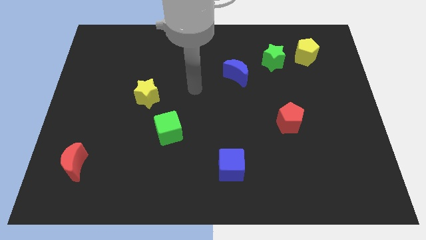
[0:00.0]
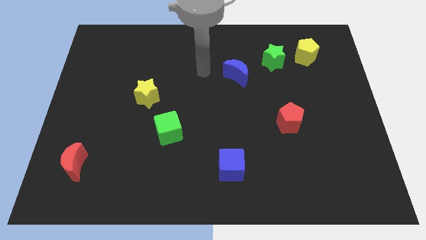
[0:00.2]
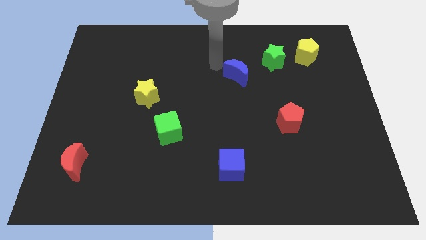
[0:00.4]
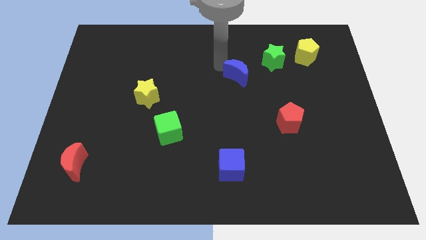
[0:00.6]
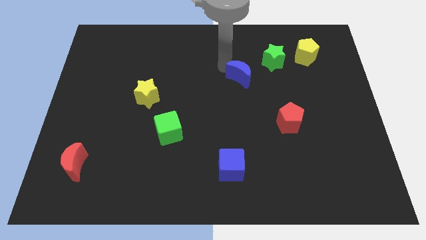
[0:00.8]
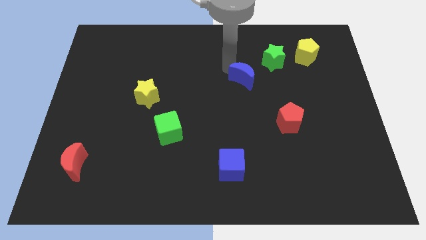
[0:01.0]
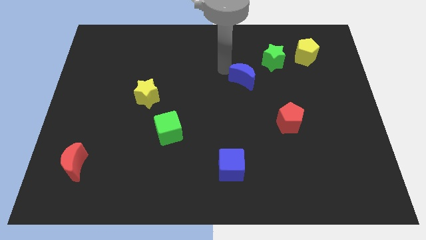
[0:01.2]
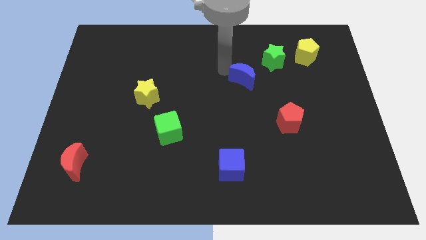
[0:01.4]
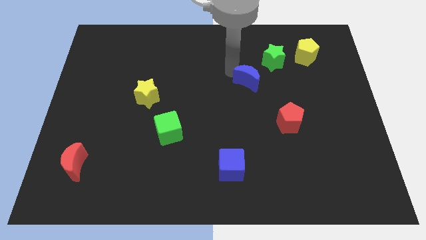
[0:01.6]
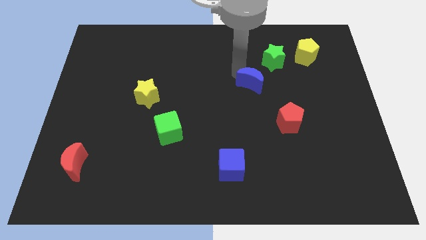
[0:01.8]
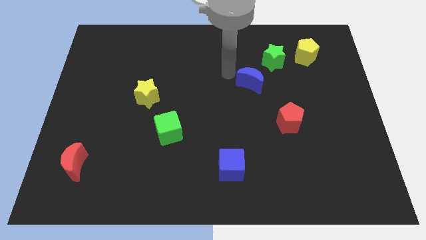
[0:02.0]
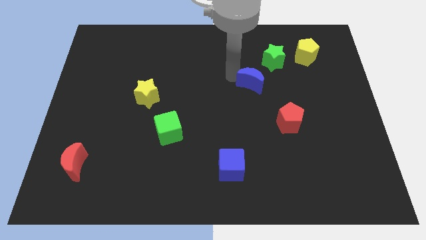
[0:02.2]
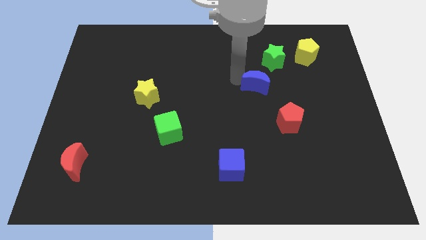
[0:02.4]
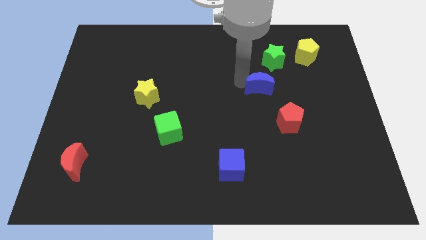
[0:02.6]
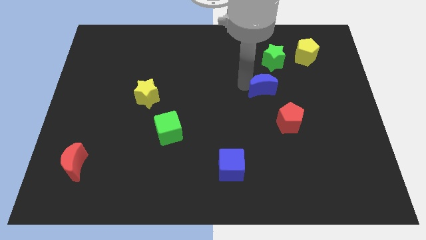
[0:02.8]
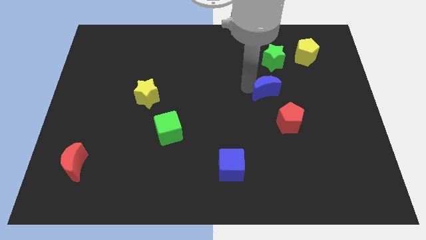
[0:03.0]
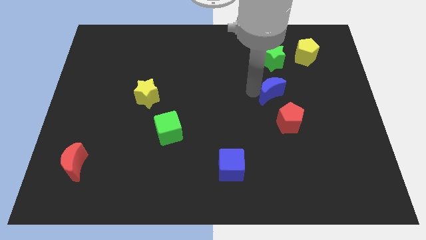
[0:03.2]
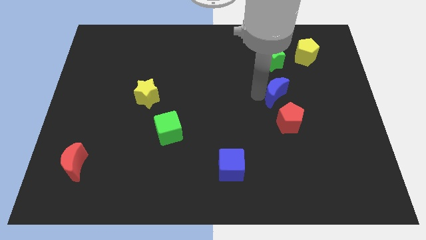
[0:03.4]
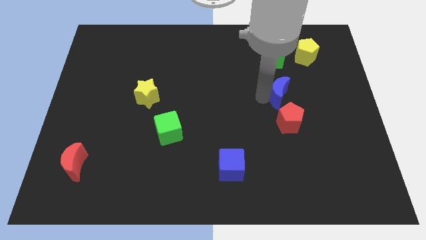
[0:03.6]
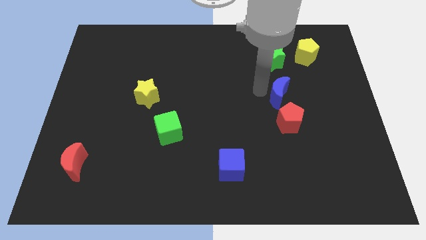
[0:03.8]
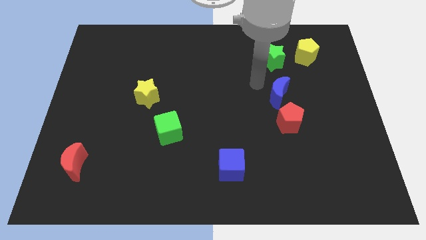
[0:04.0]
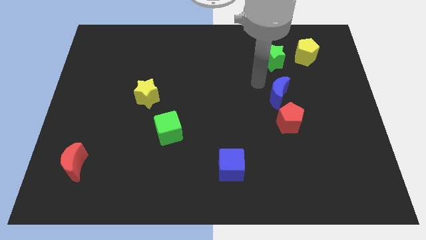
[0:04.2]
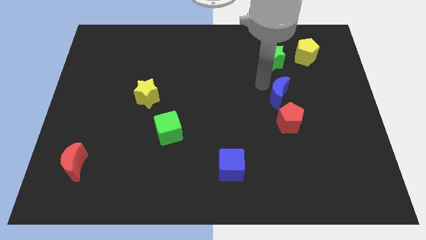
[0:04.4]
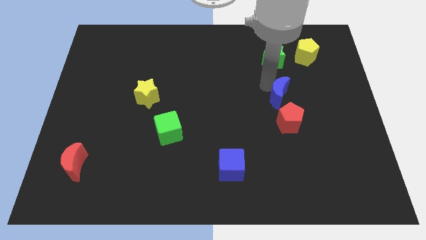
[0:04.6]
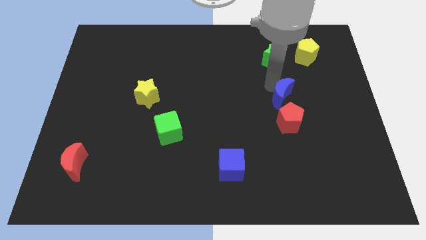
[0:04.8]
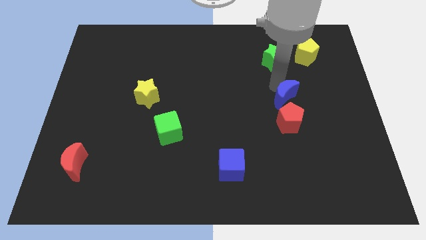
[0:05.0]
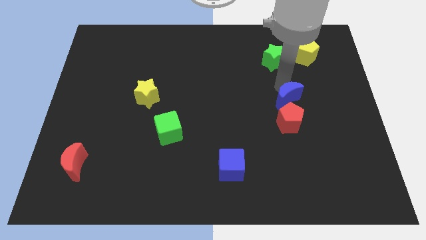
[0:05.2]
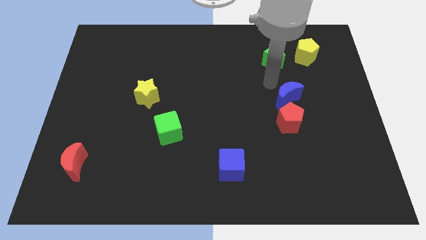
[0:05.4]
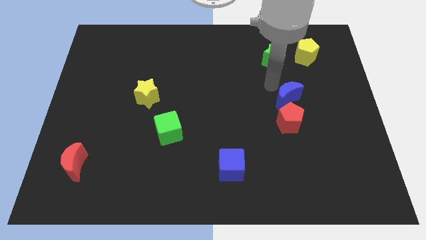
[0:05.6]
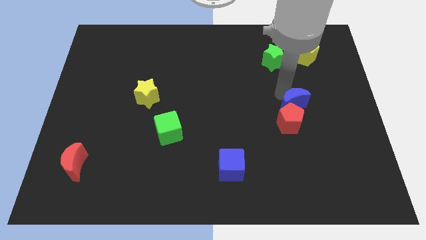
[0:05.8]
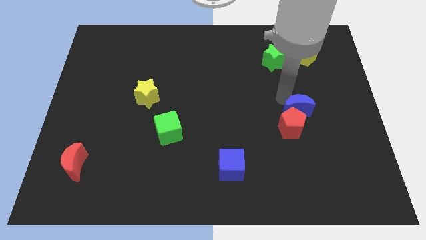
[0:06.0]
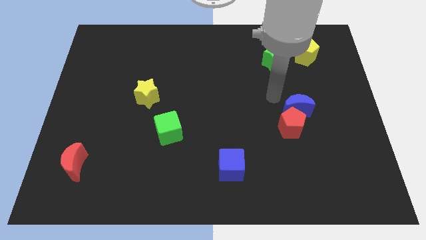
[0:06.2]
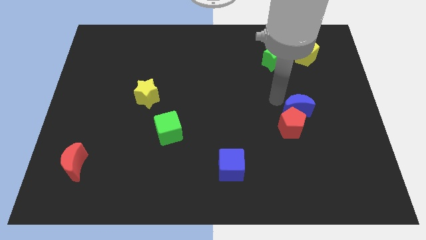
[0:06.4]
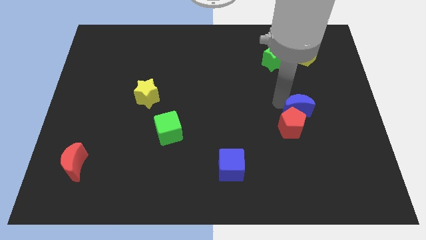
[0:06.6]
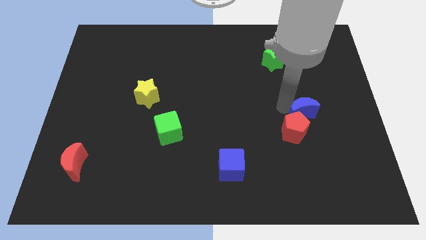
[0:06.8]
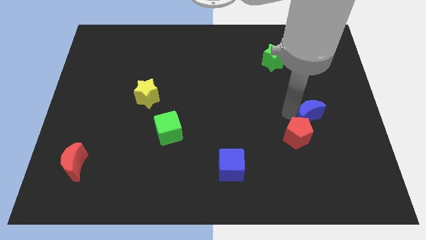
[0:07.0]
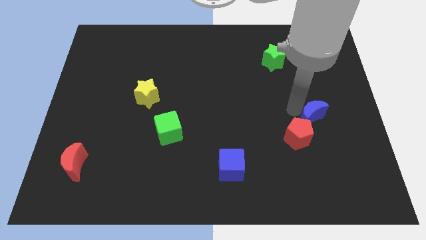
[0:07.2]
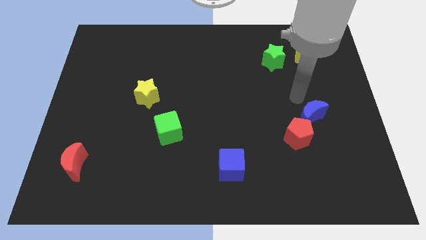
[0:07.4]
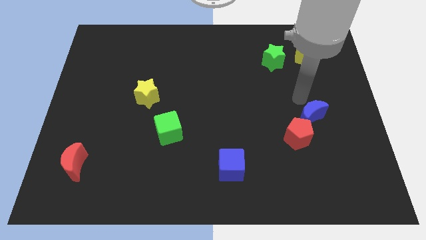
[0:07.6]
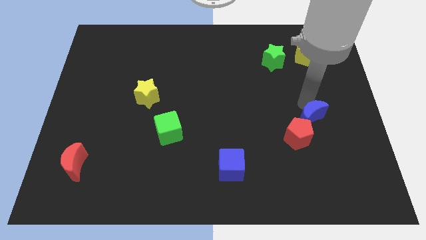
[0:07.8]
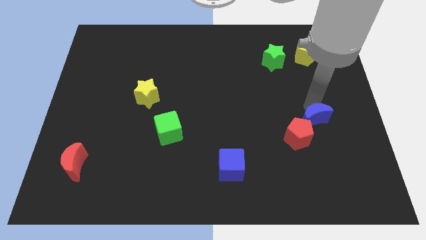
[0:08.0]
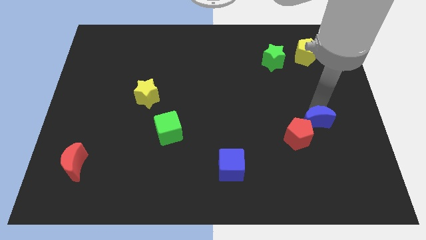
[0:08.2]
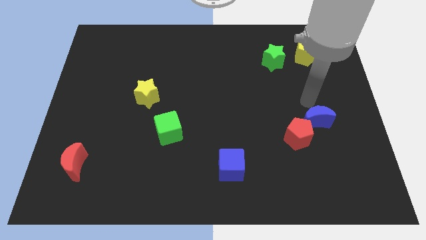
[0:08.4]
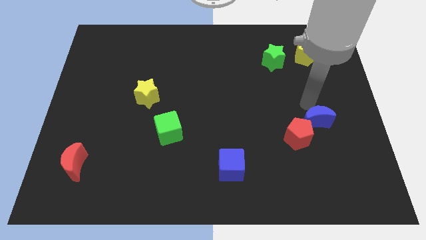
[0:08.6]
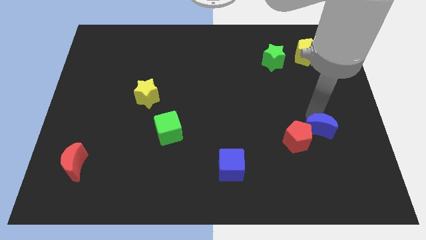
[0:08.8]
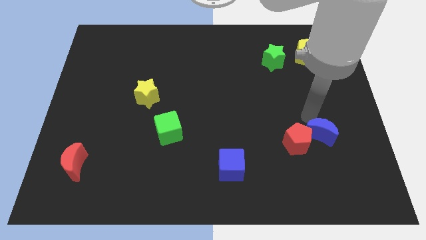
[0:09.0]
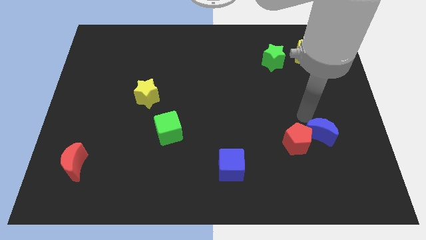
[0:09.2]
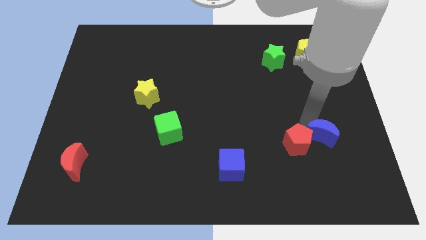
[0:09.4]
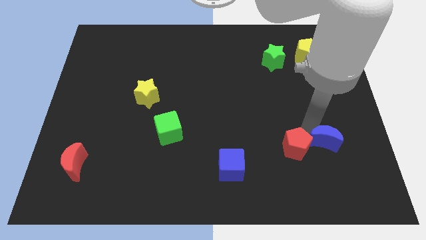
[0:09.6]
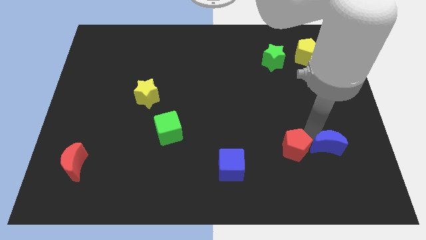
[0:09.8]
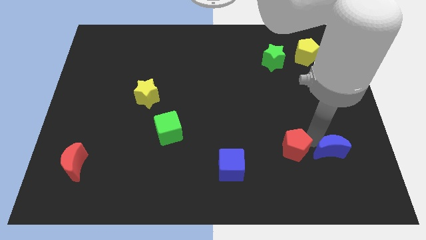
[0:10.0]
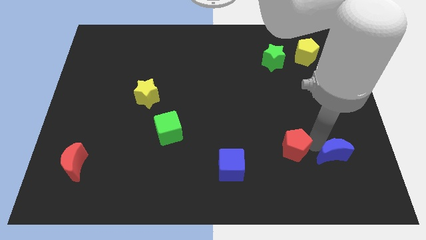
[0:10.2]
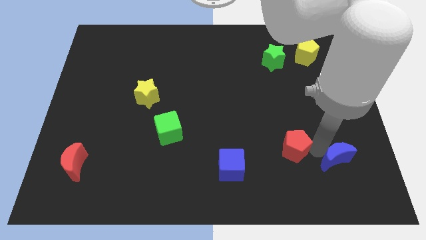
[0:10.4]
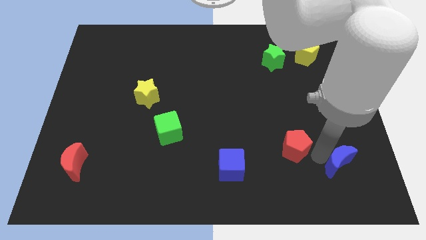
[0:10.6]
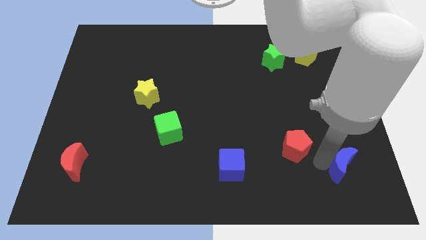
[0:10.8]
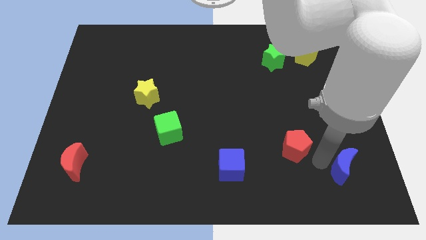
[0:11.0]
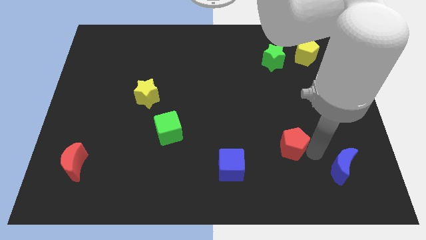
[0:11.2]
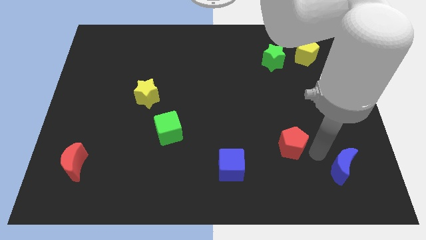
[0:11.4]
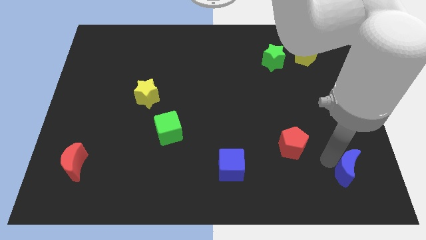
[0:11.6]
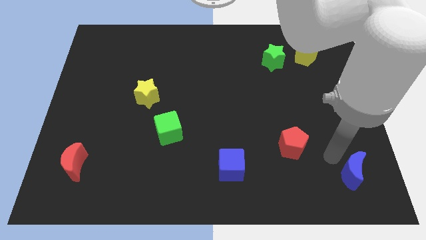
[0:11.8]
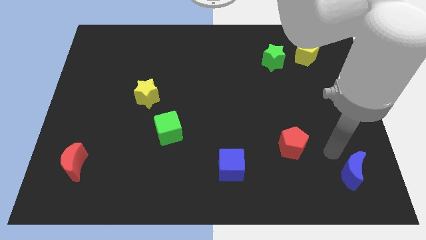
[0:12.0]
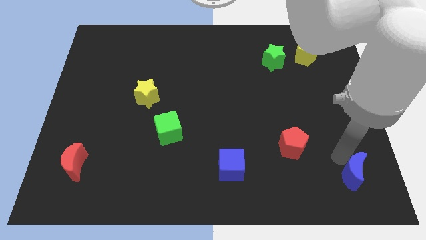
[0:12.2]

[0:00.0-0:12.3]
put the blue moon to the bottom right of the board
